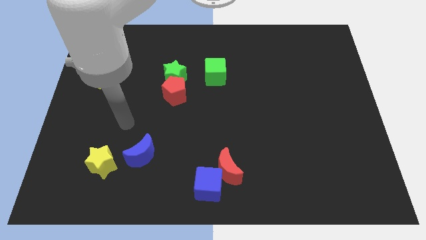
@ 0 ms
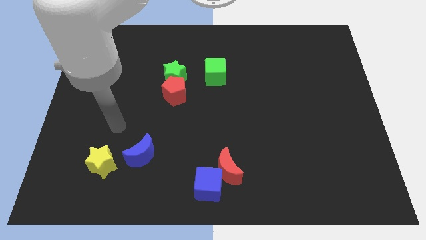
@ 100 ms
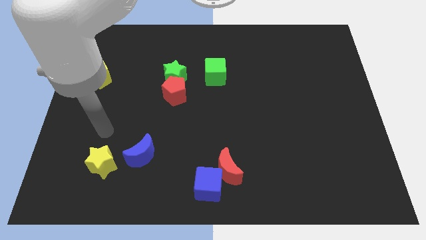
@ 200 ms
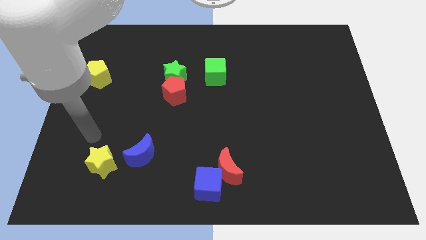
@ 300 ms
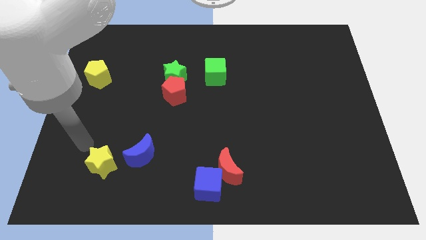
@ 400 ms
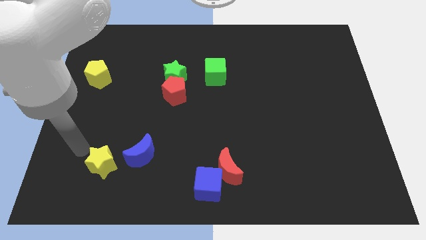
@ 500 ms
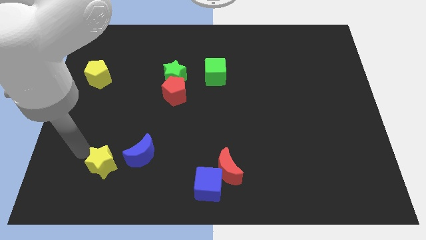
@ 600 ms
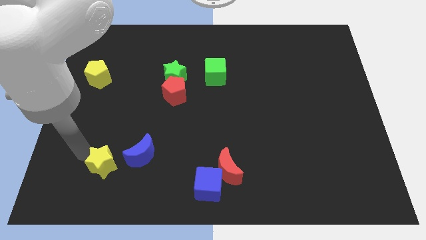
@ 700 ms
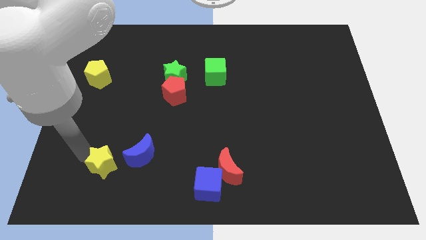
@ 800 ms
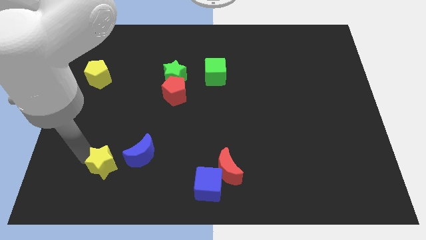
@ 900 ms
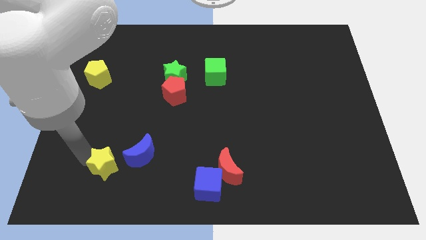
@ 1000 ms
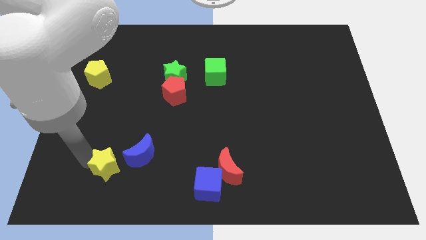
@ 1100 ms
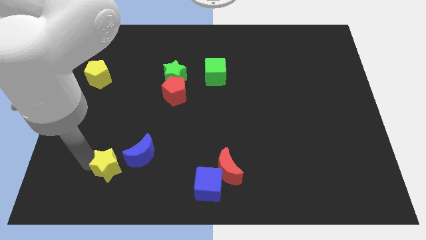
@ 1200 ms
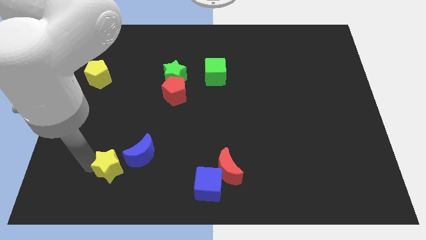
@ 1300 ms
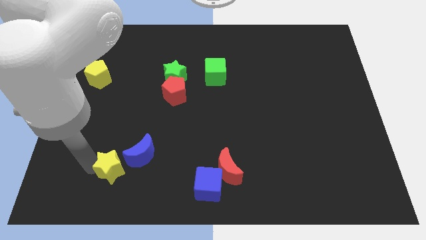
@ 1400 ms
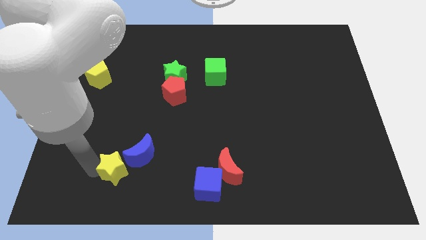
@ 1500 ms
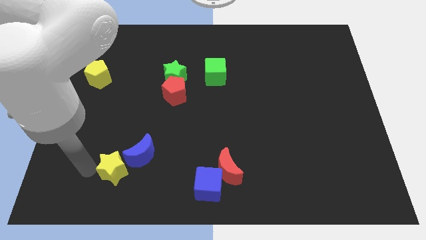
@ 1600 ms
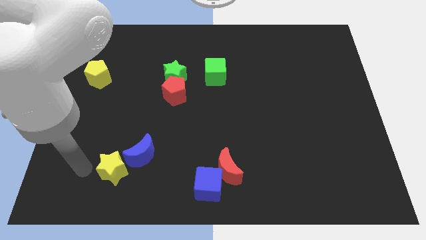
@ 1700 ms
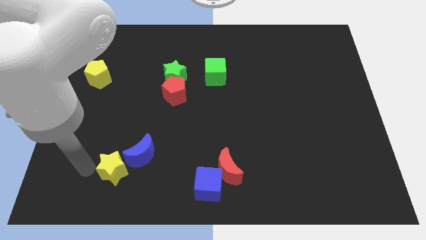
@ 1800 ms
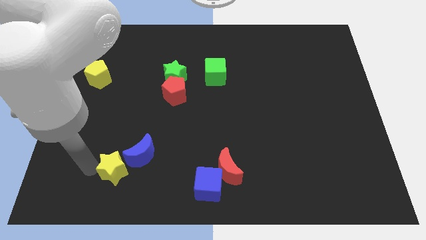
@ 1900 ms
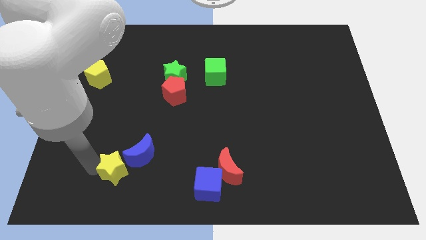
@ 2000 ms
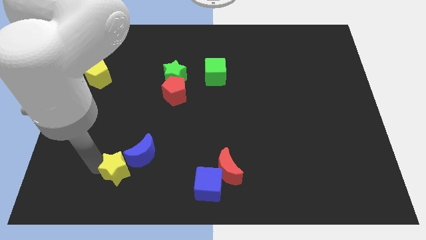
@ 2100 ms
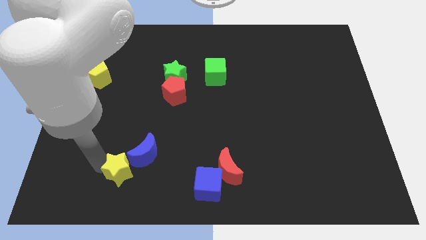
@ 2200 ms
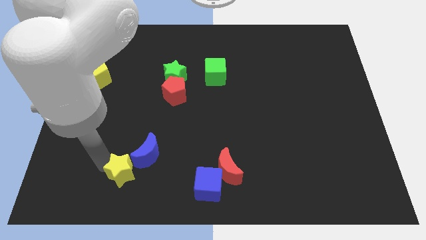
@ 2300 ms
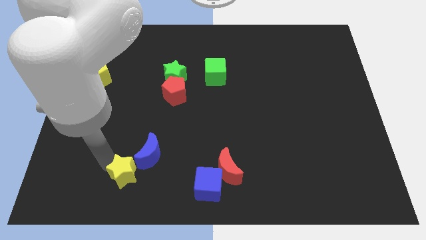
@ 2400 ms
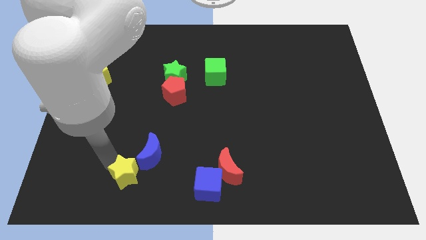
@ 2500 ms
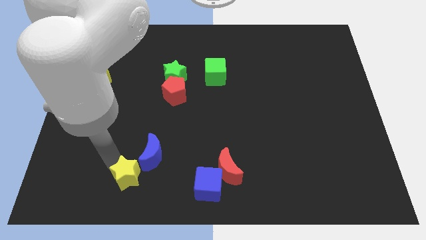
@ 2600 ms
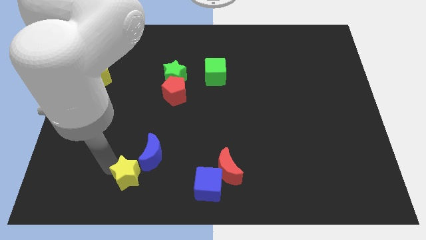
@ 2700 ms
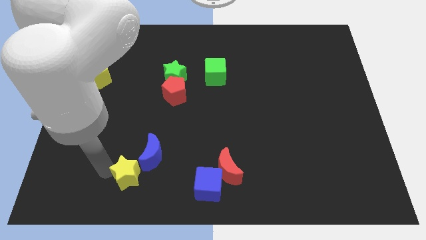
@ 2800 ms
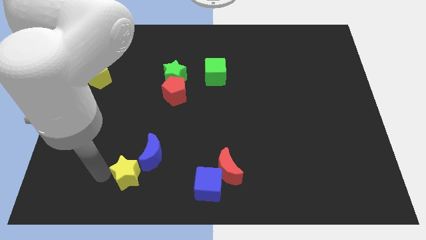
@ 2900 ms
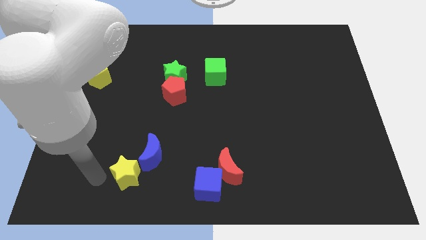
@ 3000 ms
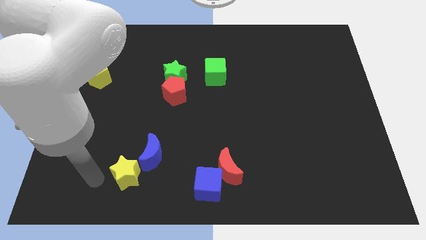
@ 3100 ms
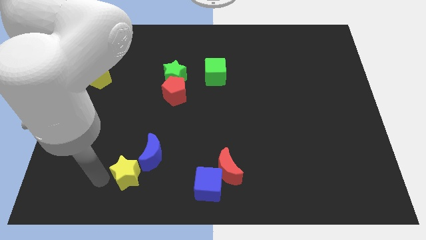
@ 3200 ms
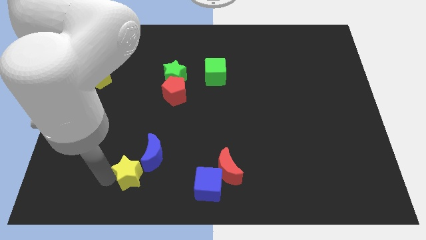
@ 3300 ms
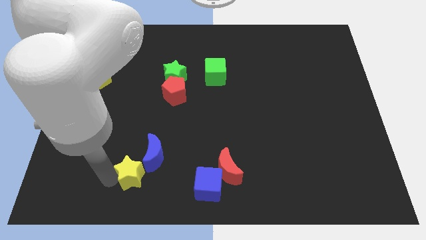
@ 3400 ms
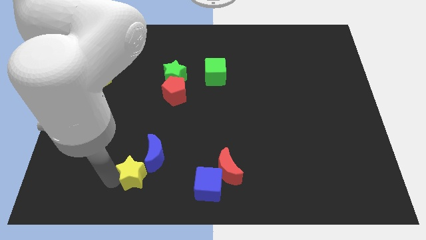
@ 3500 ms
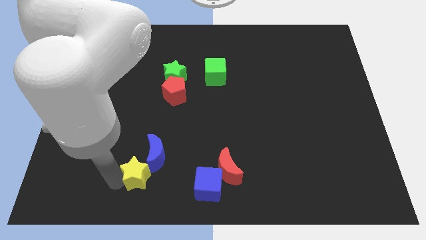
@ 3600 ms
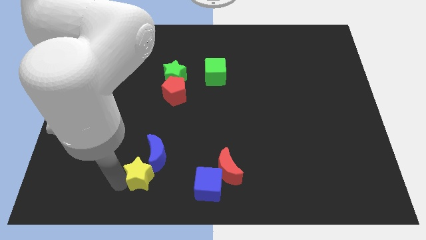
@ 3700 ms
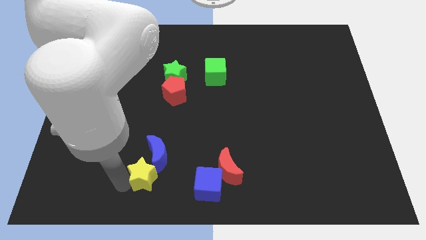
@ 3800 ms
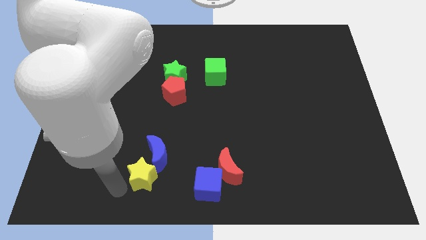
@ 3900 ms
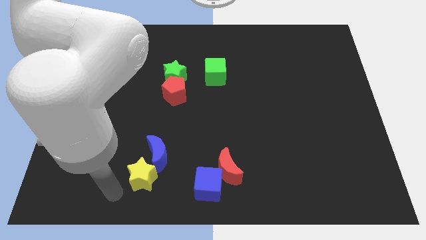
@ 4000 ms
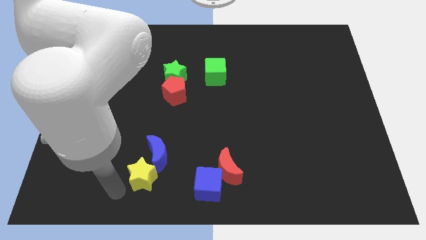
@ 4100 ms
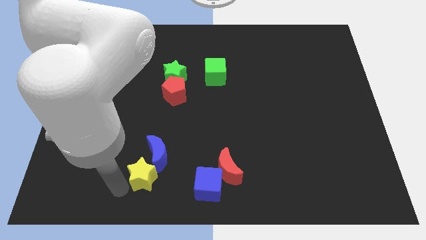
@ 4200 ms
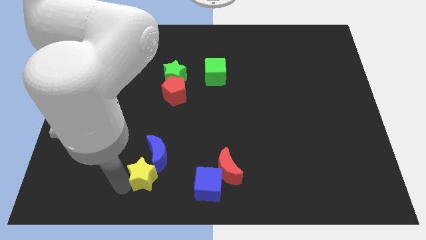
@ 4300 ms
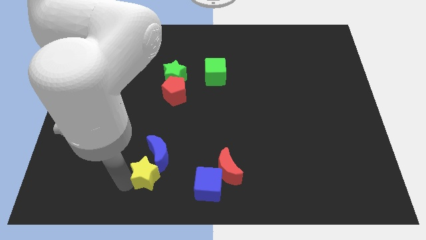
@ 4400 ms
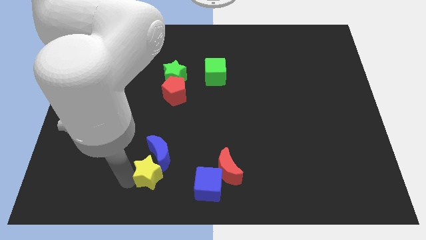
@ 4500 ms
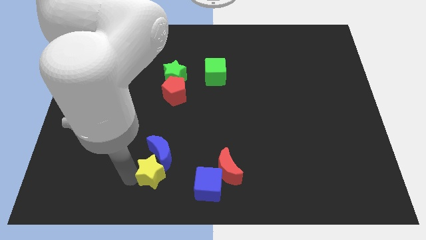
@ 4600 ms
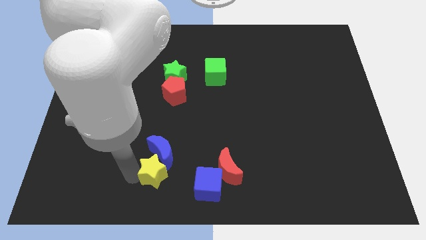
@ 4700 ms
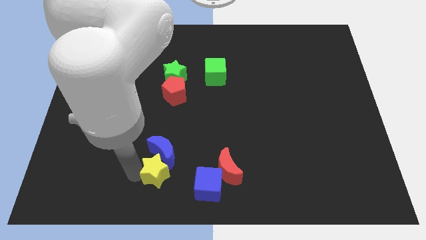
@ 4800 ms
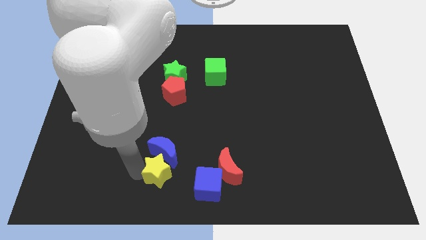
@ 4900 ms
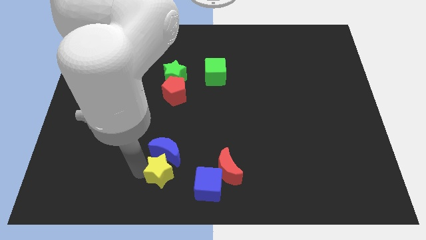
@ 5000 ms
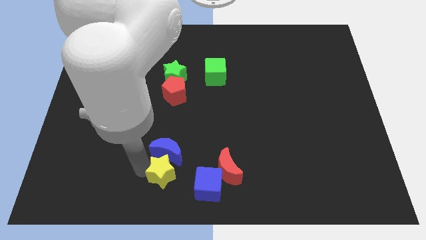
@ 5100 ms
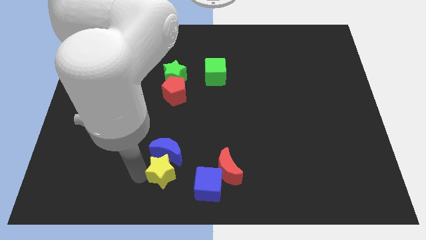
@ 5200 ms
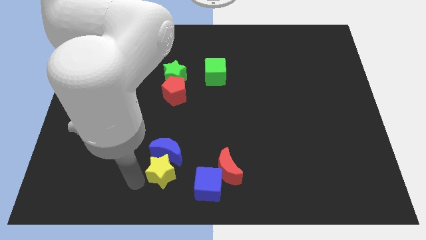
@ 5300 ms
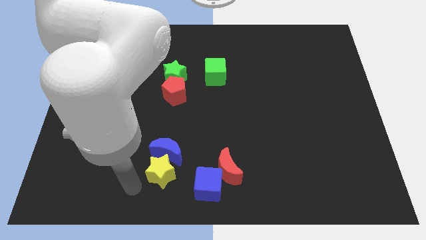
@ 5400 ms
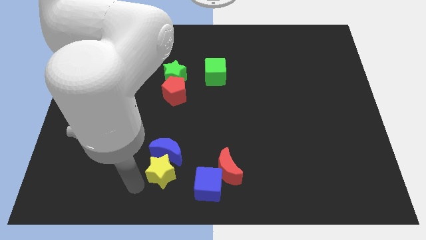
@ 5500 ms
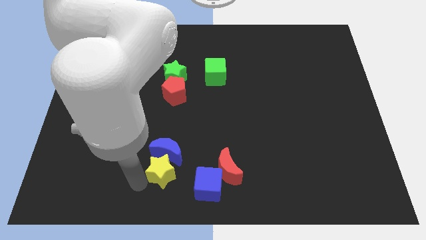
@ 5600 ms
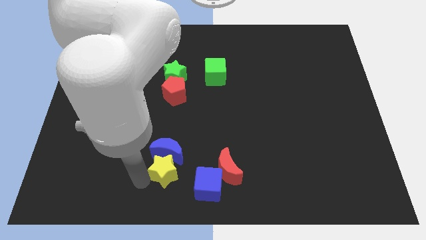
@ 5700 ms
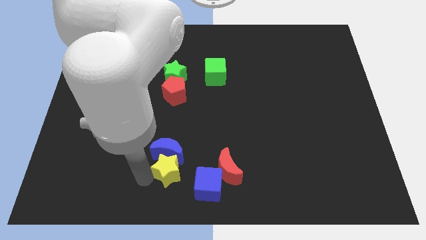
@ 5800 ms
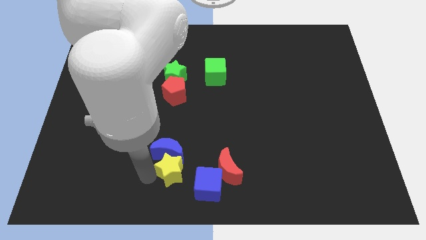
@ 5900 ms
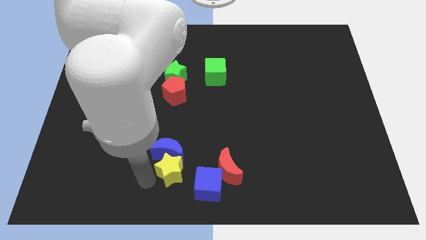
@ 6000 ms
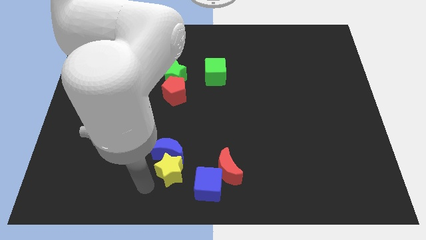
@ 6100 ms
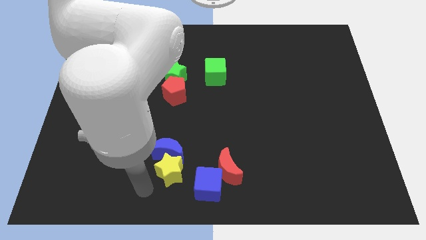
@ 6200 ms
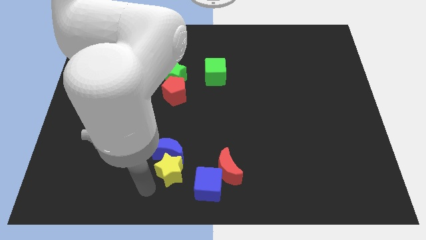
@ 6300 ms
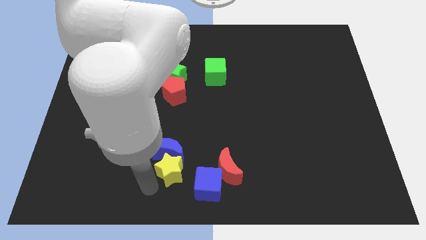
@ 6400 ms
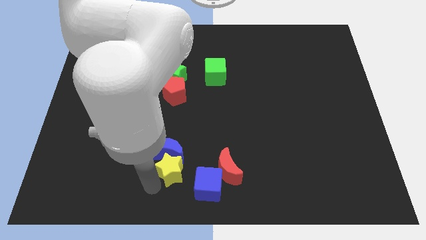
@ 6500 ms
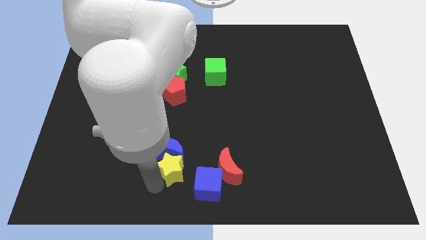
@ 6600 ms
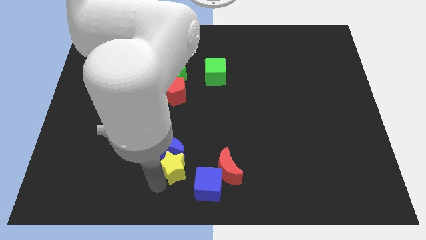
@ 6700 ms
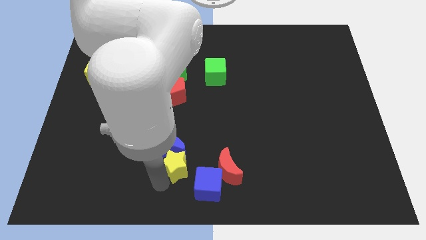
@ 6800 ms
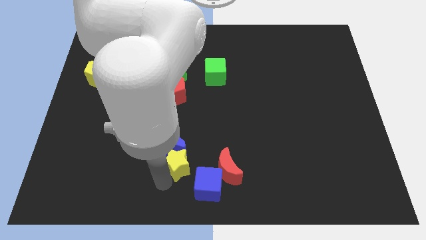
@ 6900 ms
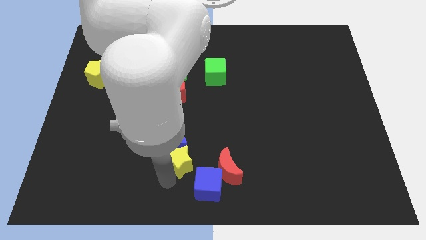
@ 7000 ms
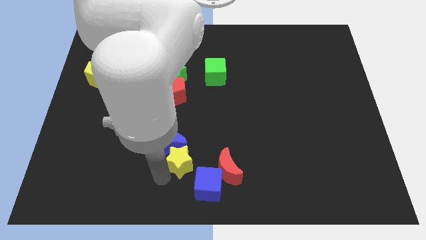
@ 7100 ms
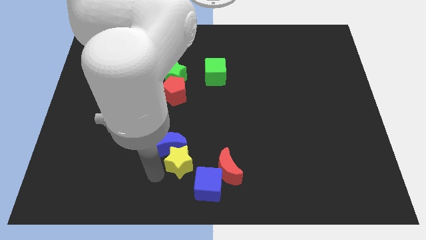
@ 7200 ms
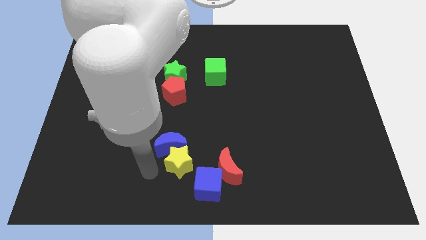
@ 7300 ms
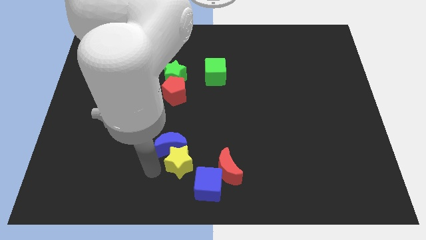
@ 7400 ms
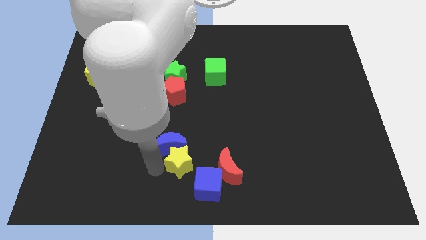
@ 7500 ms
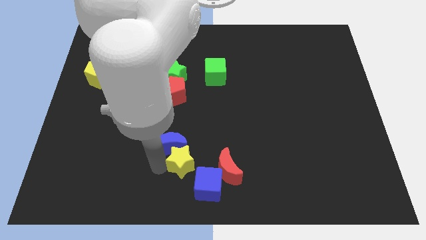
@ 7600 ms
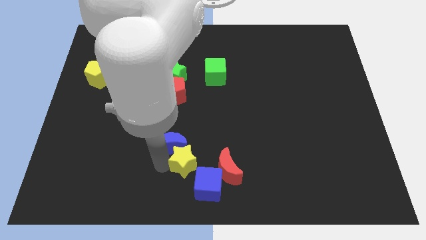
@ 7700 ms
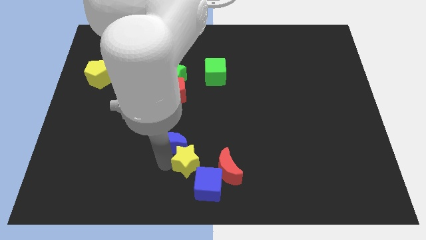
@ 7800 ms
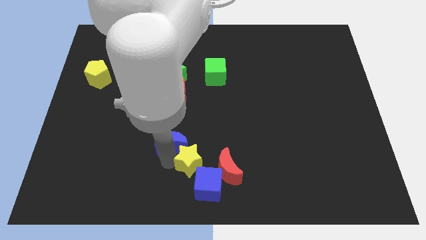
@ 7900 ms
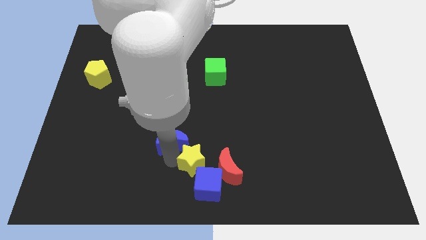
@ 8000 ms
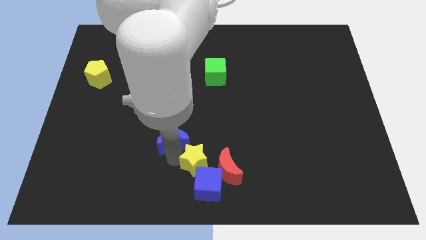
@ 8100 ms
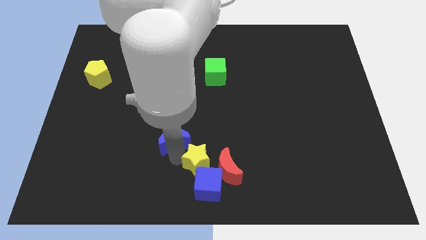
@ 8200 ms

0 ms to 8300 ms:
slide the yellow star right
